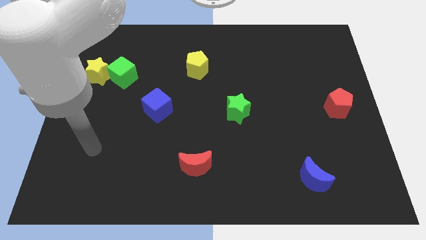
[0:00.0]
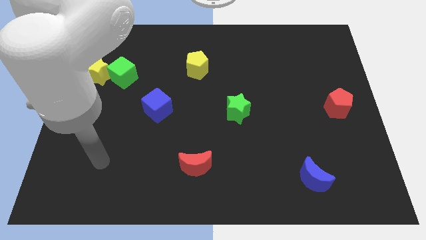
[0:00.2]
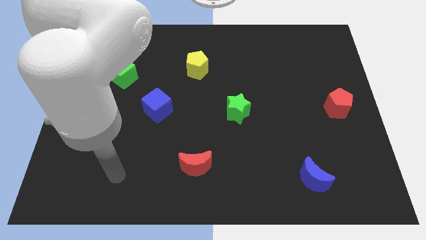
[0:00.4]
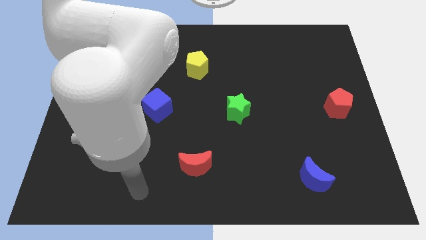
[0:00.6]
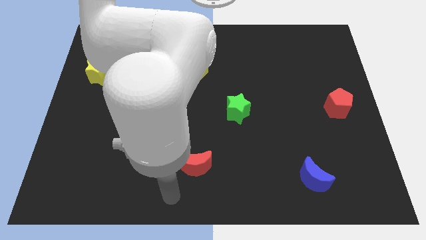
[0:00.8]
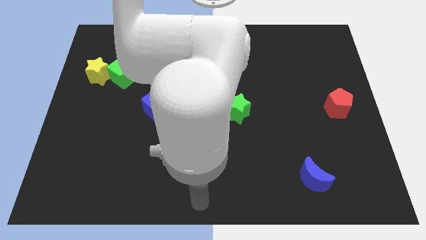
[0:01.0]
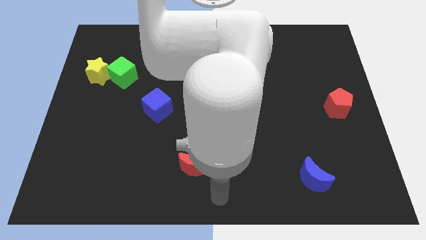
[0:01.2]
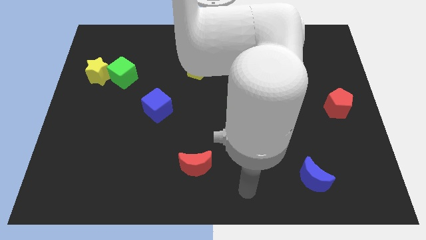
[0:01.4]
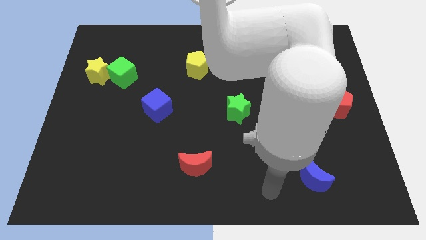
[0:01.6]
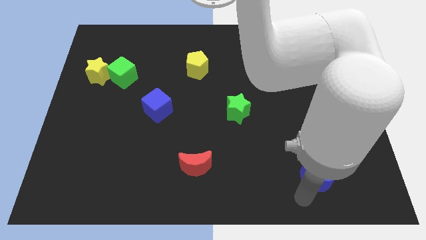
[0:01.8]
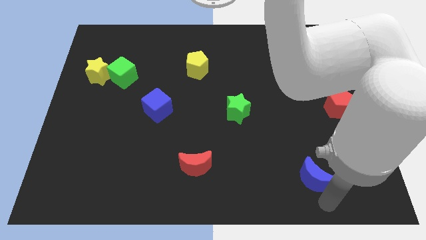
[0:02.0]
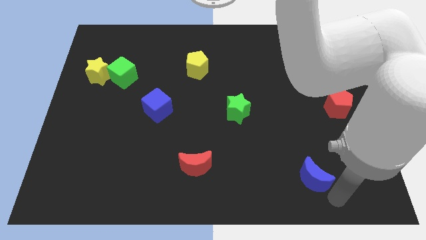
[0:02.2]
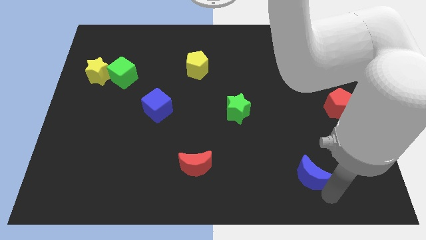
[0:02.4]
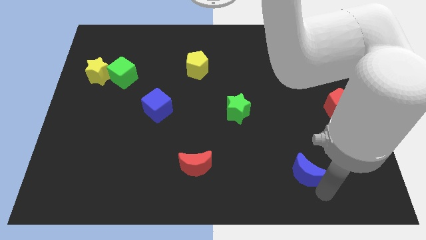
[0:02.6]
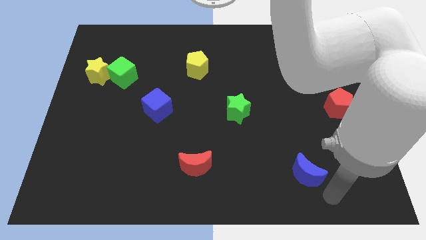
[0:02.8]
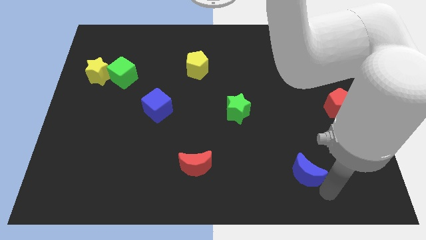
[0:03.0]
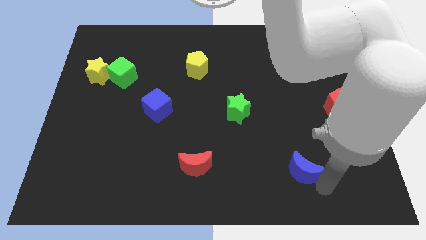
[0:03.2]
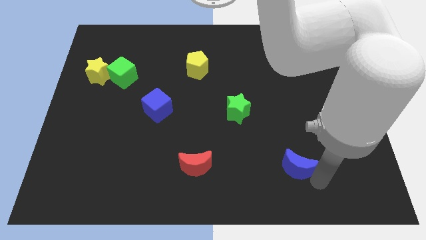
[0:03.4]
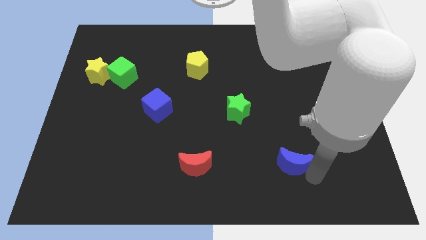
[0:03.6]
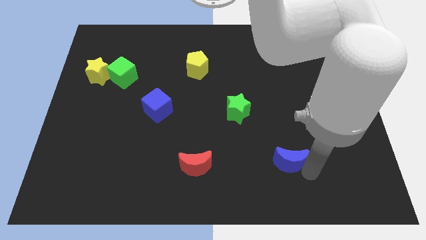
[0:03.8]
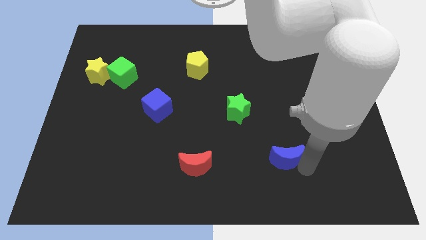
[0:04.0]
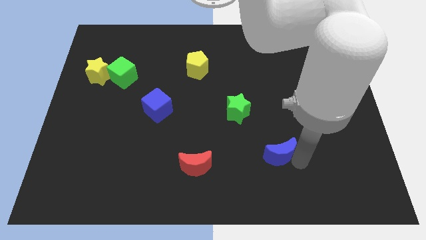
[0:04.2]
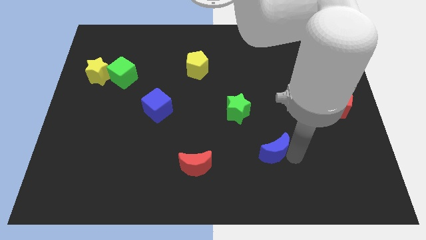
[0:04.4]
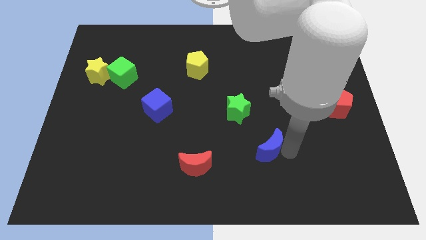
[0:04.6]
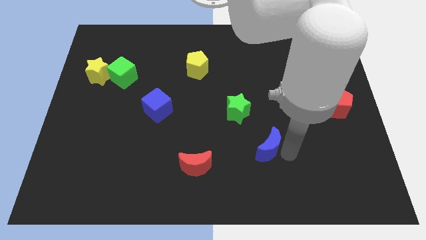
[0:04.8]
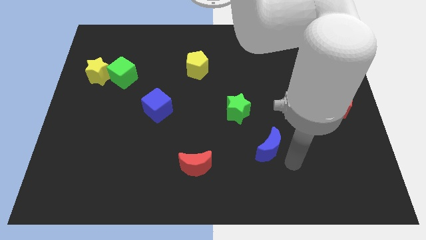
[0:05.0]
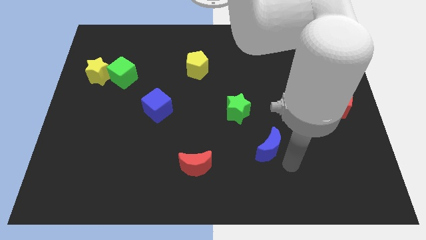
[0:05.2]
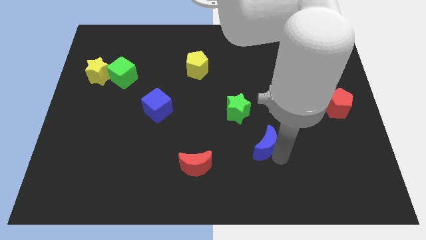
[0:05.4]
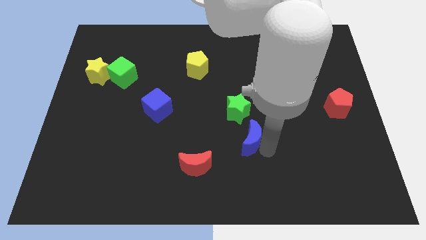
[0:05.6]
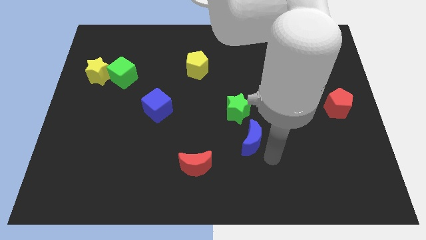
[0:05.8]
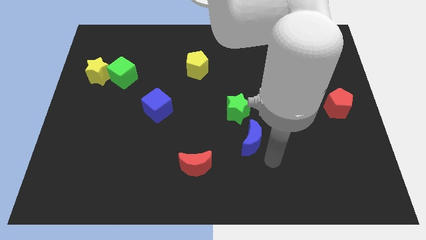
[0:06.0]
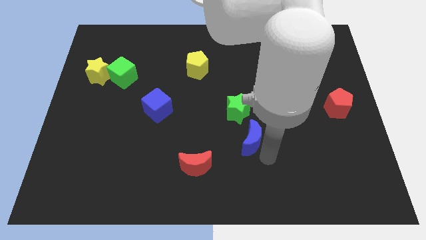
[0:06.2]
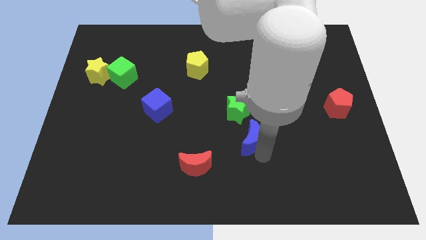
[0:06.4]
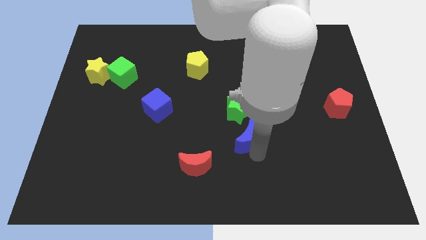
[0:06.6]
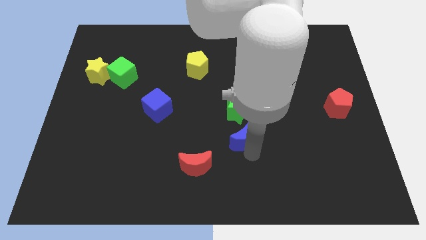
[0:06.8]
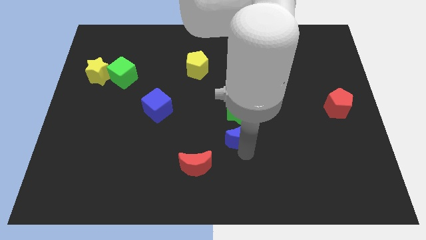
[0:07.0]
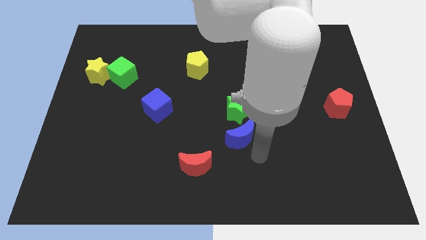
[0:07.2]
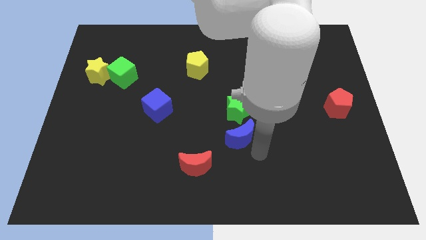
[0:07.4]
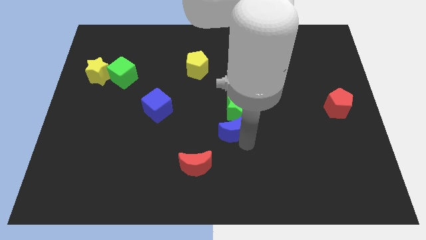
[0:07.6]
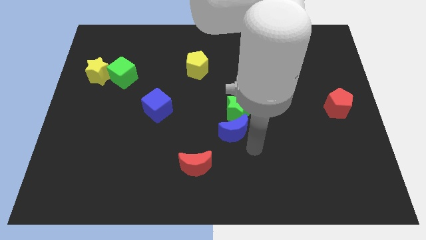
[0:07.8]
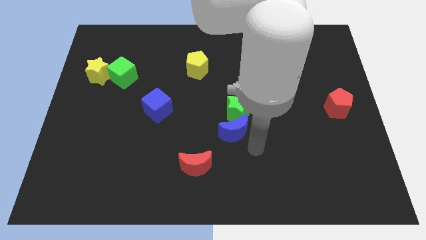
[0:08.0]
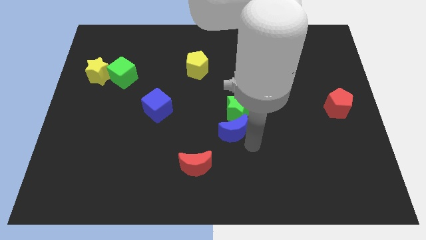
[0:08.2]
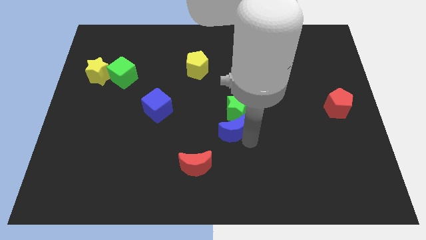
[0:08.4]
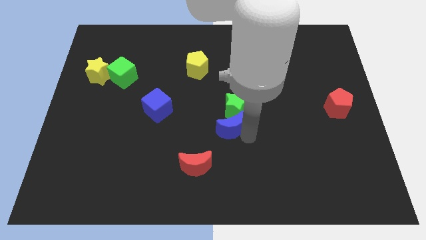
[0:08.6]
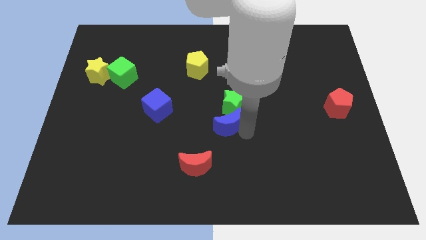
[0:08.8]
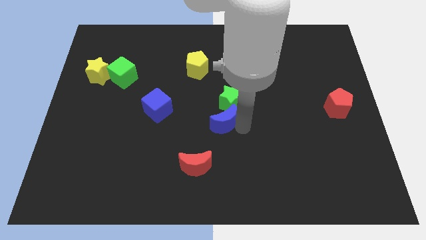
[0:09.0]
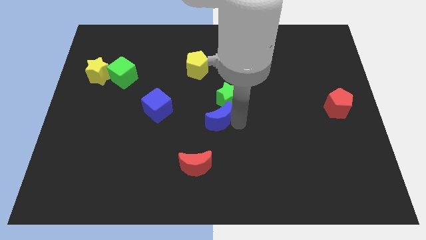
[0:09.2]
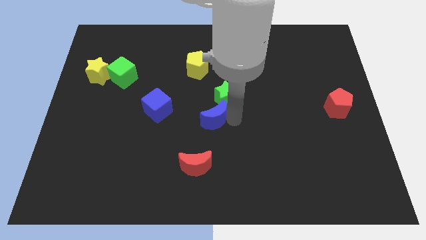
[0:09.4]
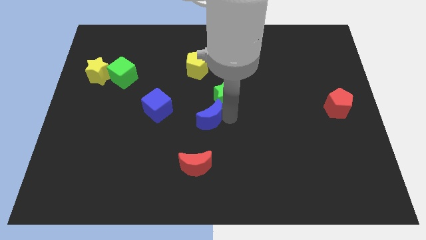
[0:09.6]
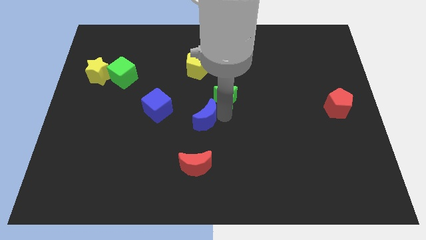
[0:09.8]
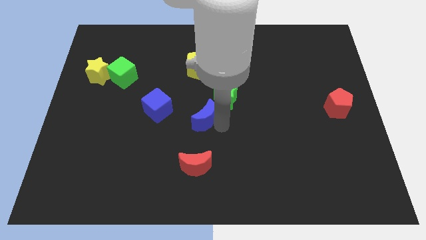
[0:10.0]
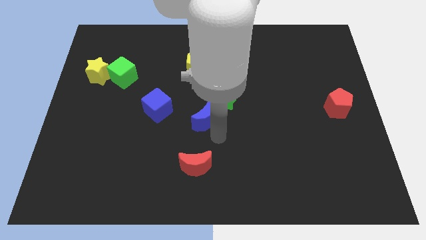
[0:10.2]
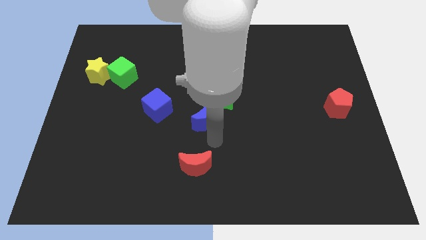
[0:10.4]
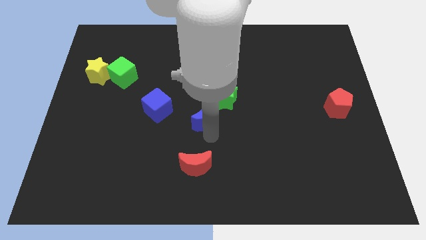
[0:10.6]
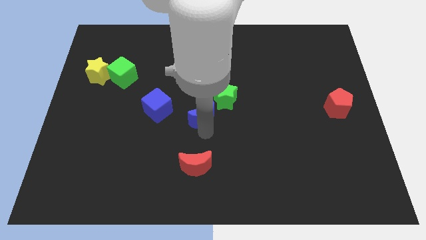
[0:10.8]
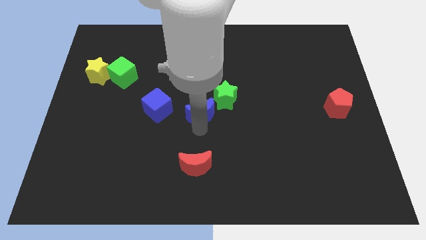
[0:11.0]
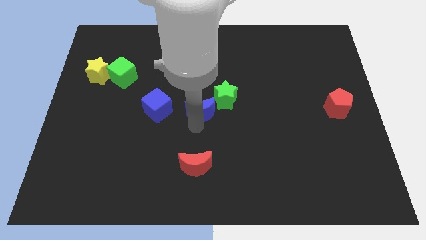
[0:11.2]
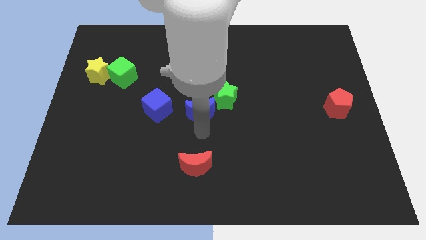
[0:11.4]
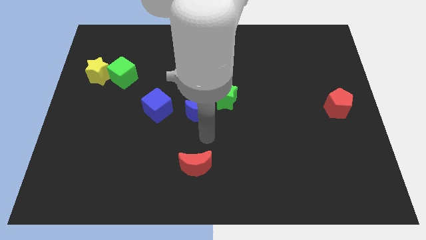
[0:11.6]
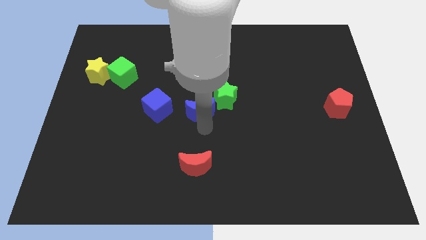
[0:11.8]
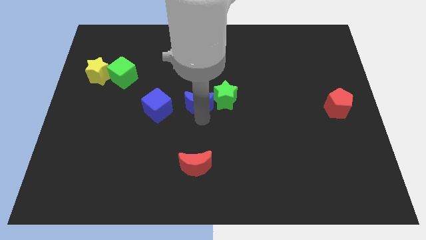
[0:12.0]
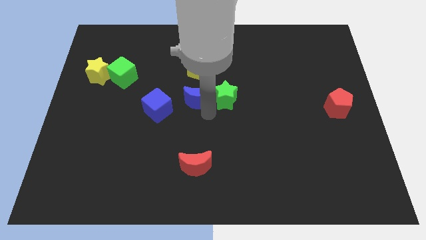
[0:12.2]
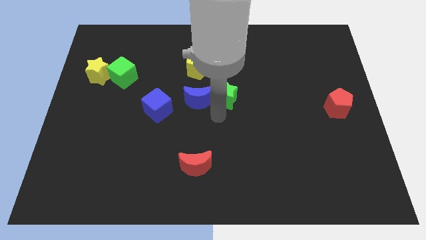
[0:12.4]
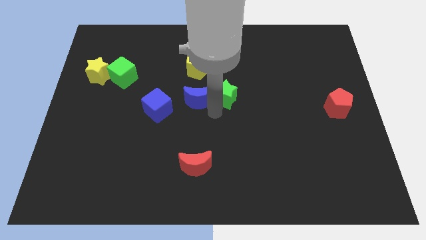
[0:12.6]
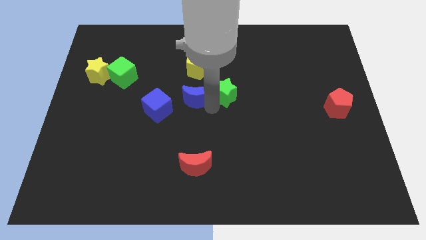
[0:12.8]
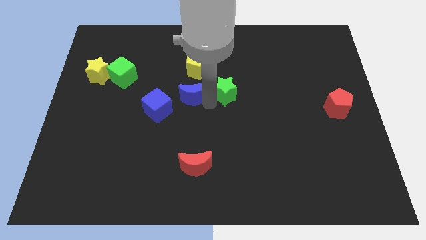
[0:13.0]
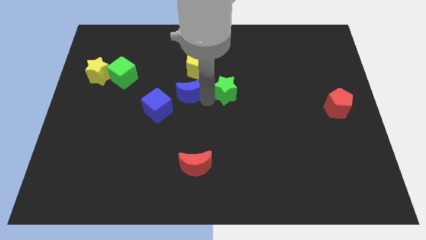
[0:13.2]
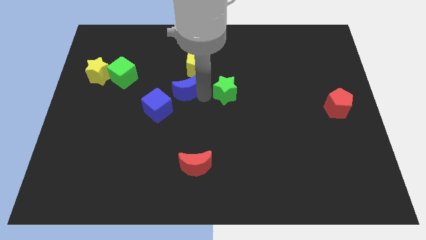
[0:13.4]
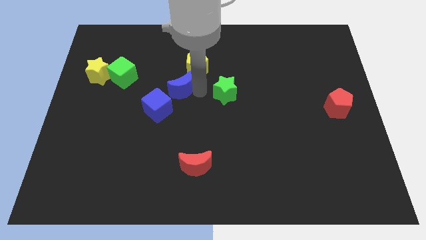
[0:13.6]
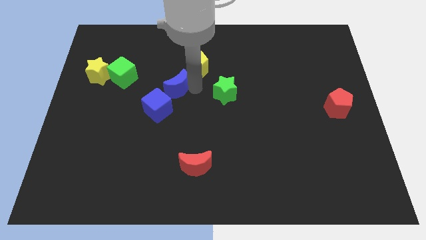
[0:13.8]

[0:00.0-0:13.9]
push the blue moon right of the green cube

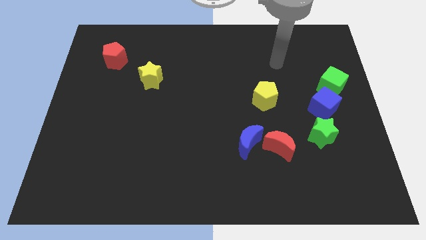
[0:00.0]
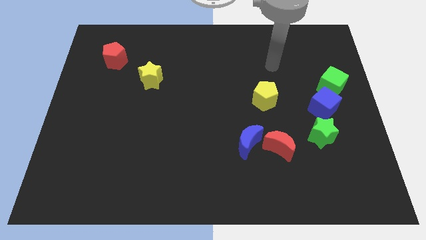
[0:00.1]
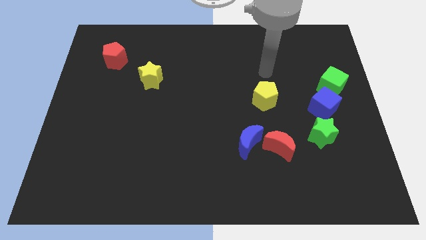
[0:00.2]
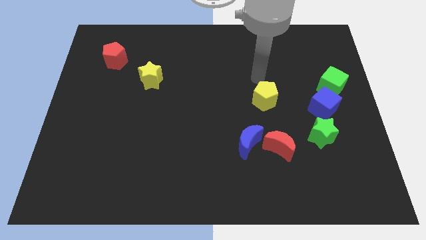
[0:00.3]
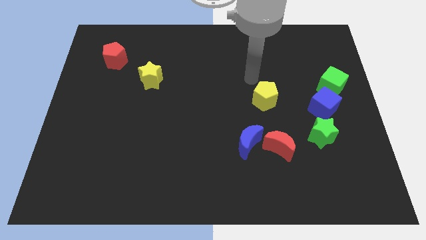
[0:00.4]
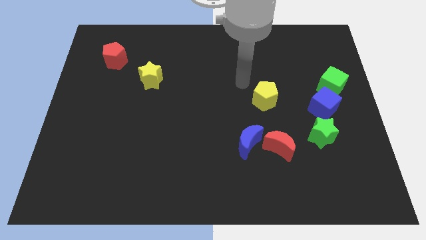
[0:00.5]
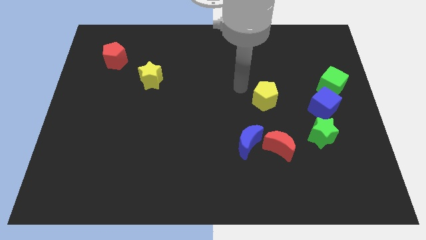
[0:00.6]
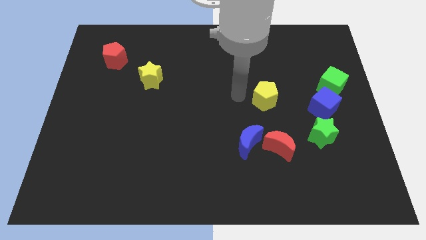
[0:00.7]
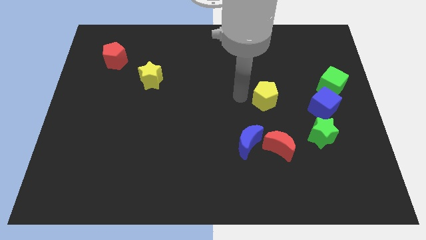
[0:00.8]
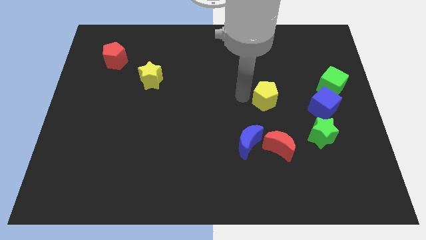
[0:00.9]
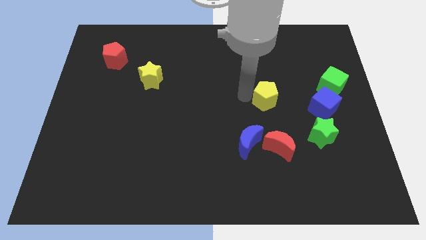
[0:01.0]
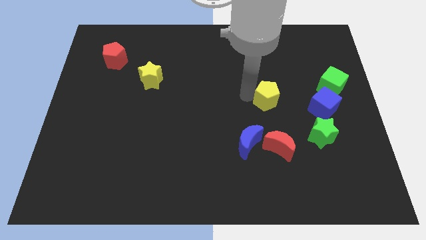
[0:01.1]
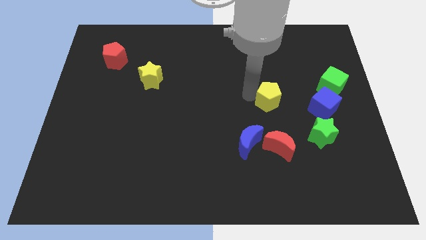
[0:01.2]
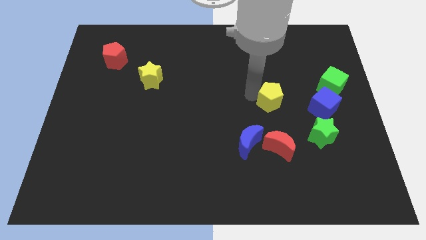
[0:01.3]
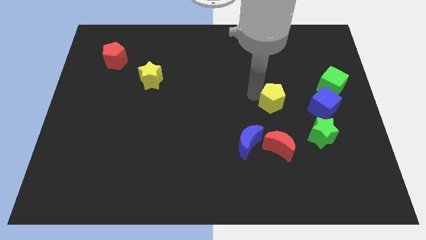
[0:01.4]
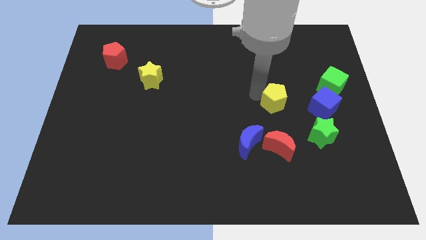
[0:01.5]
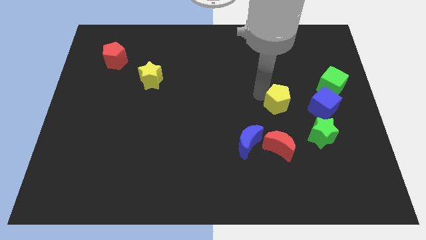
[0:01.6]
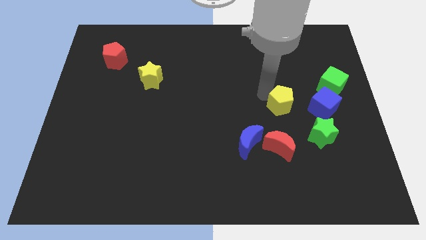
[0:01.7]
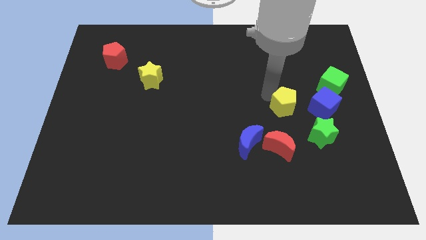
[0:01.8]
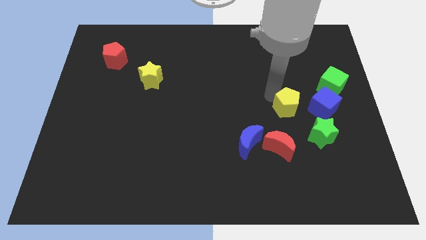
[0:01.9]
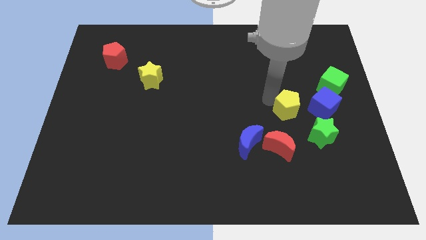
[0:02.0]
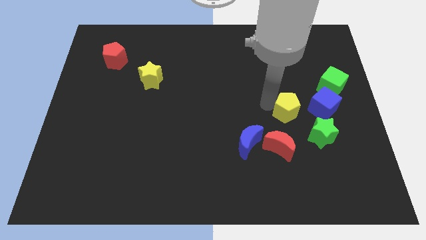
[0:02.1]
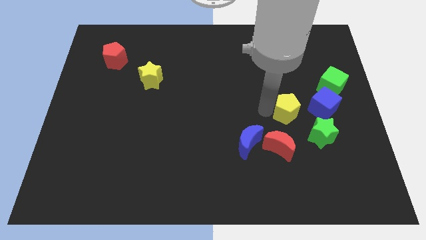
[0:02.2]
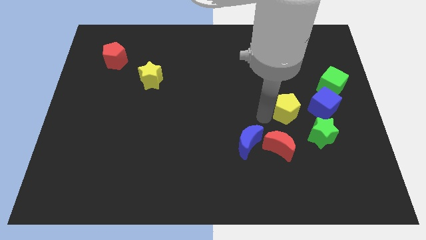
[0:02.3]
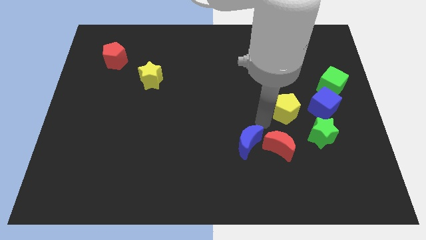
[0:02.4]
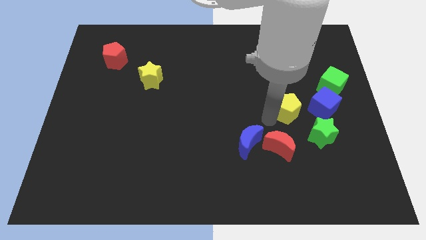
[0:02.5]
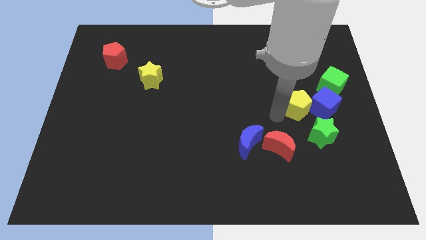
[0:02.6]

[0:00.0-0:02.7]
put the yellow pentagon to the top of the green star
